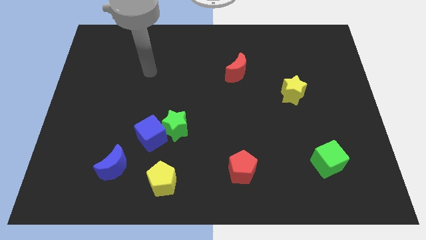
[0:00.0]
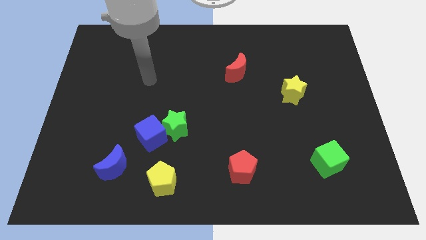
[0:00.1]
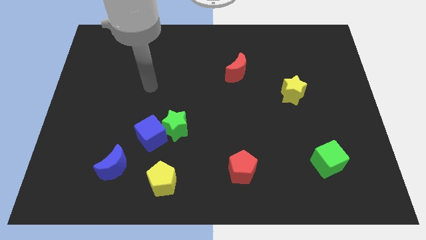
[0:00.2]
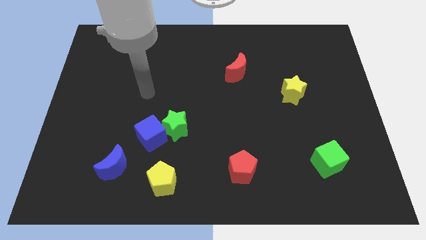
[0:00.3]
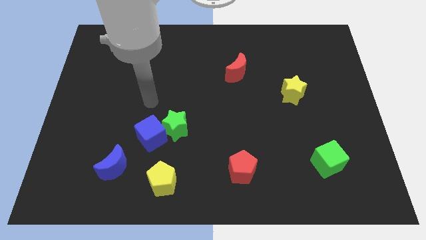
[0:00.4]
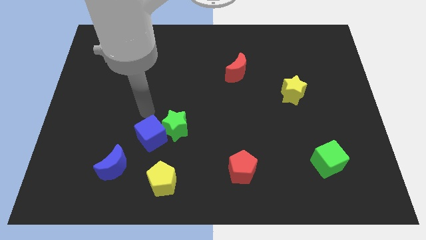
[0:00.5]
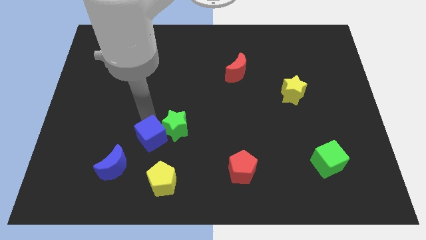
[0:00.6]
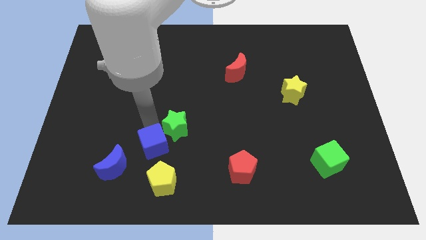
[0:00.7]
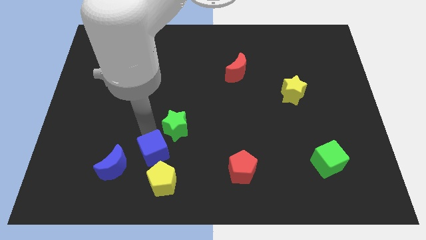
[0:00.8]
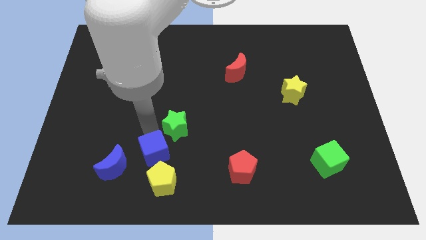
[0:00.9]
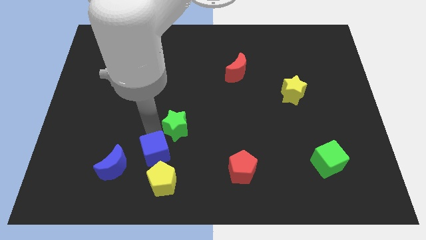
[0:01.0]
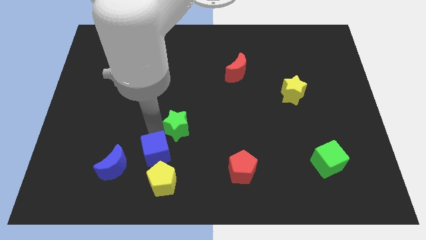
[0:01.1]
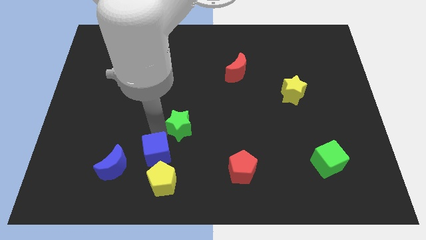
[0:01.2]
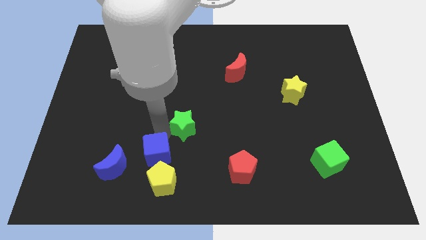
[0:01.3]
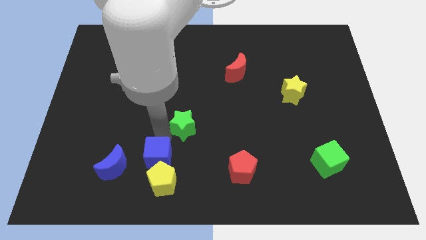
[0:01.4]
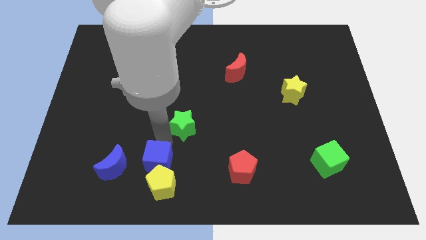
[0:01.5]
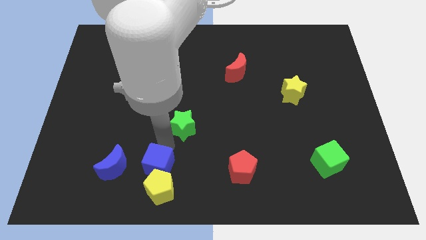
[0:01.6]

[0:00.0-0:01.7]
separate the green star from the blue cube

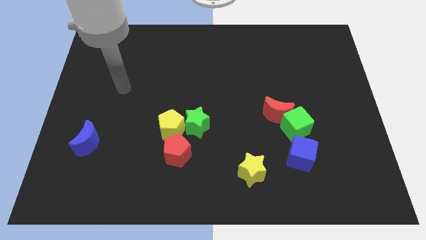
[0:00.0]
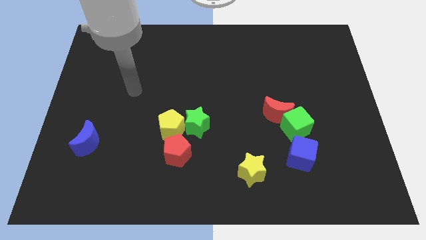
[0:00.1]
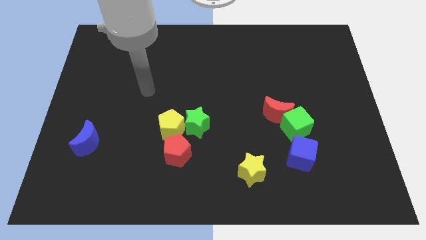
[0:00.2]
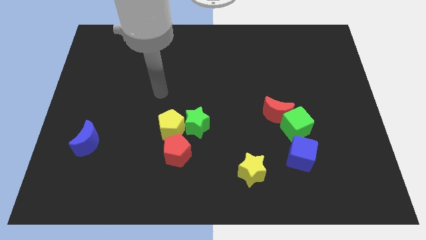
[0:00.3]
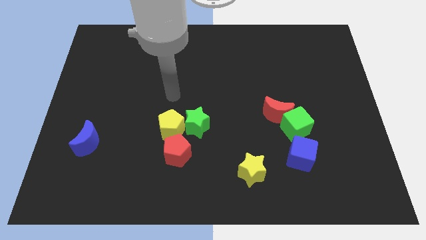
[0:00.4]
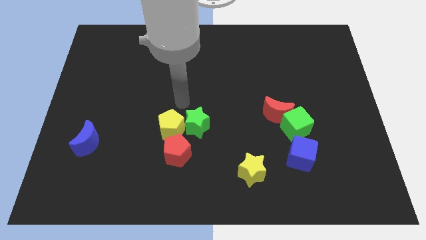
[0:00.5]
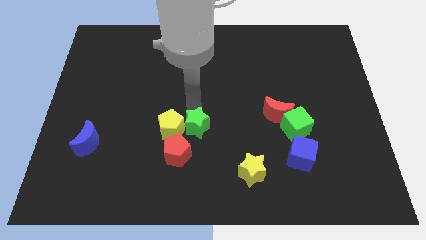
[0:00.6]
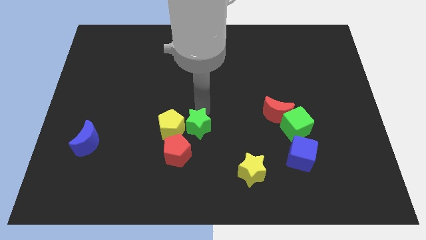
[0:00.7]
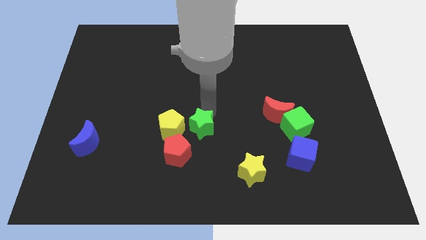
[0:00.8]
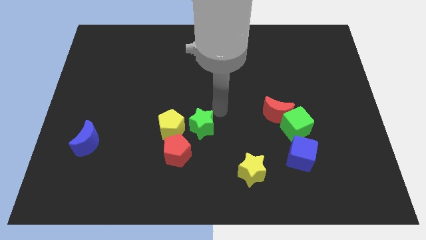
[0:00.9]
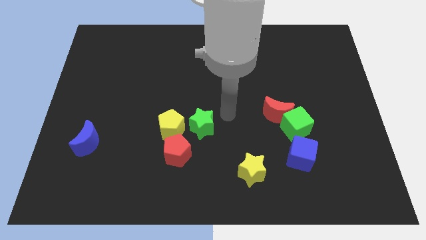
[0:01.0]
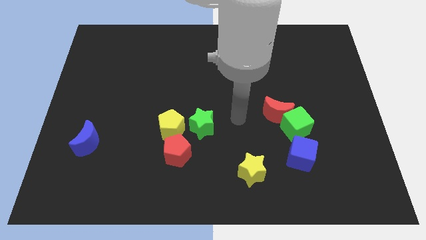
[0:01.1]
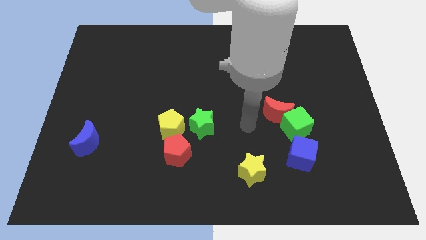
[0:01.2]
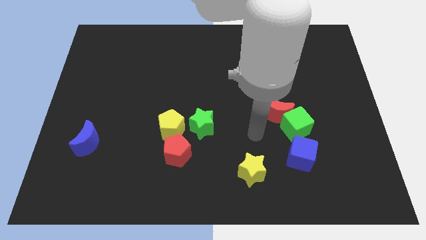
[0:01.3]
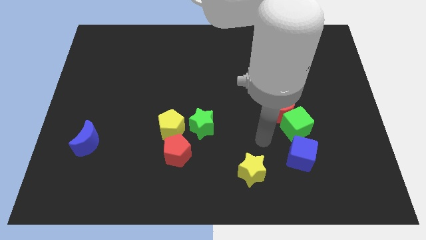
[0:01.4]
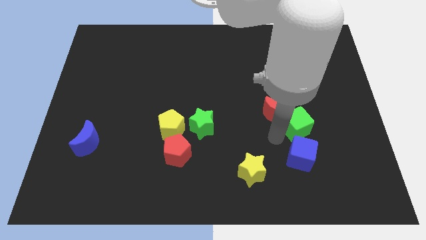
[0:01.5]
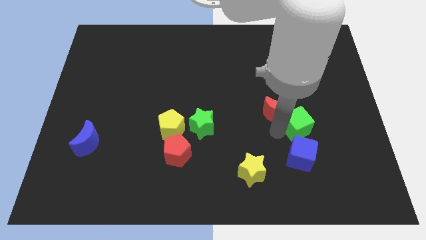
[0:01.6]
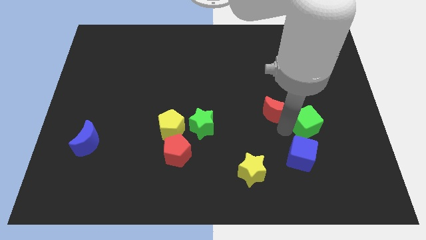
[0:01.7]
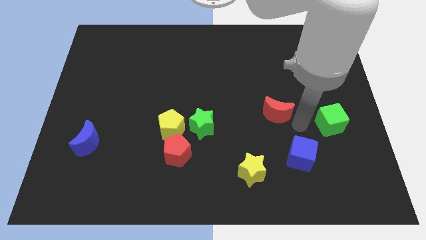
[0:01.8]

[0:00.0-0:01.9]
move the red moon away from the green cube

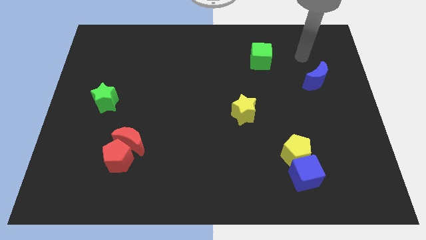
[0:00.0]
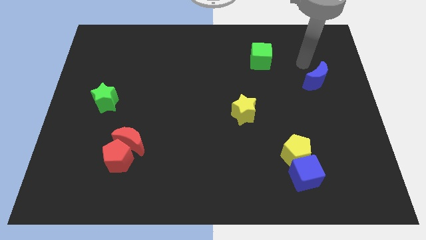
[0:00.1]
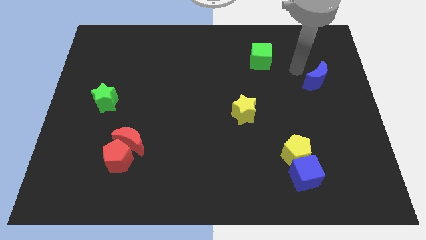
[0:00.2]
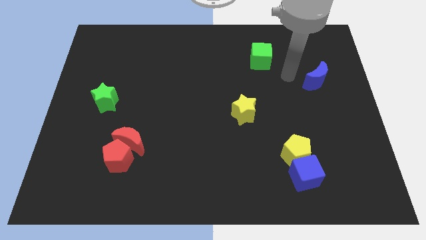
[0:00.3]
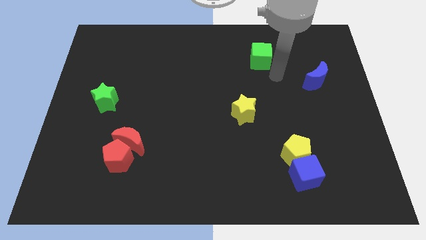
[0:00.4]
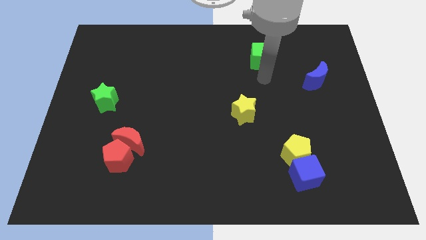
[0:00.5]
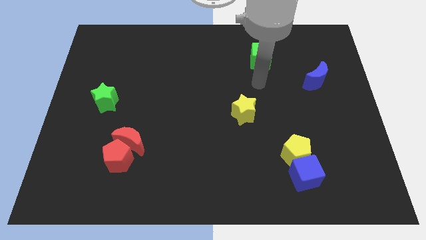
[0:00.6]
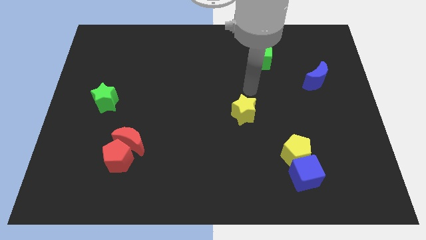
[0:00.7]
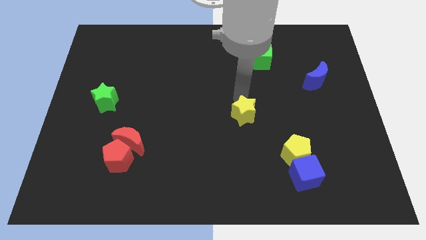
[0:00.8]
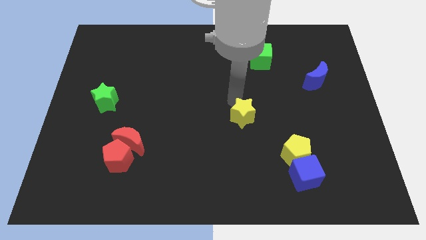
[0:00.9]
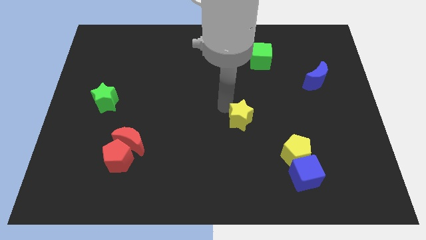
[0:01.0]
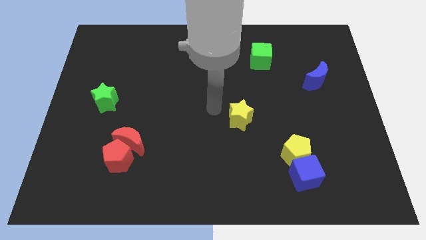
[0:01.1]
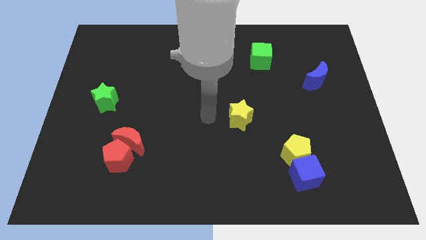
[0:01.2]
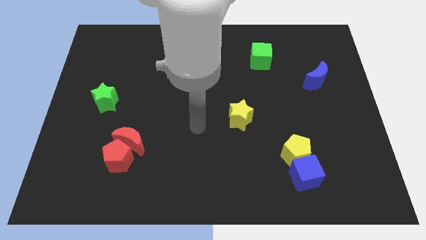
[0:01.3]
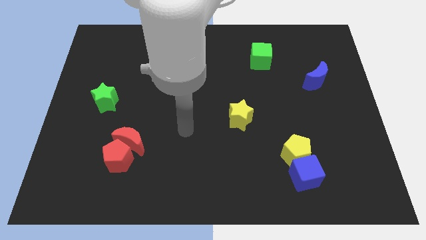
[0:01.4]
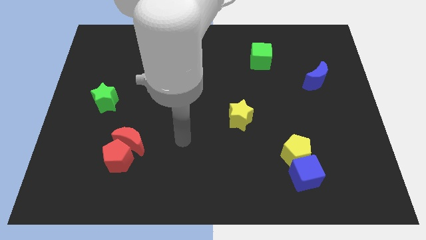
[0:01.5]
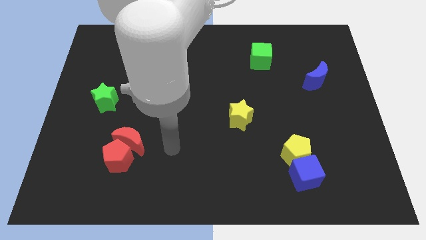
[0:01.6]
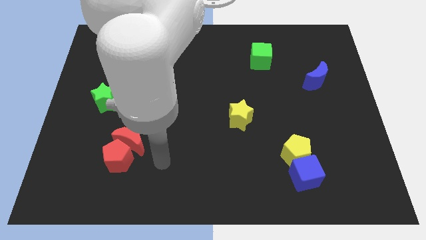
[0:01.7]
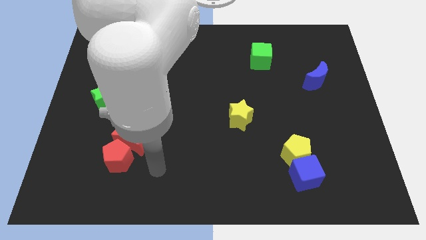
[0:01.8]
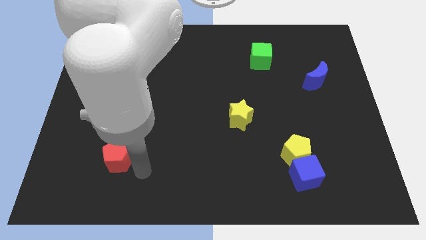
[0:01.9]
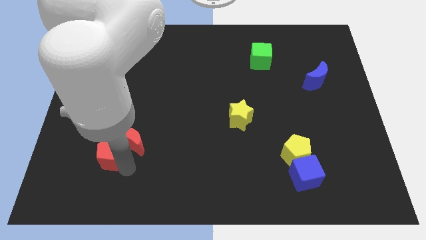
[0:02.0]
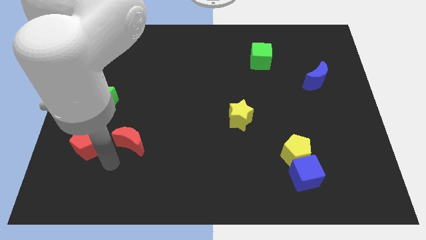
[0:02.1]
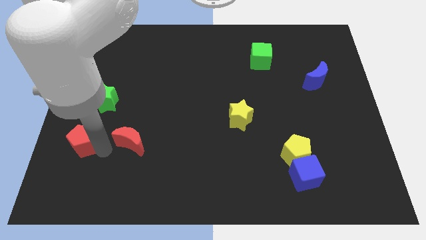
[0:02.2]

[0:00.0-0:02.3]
separate the red moon from the red pentagon

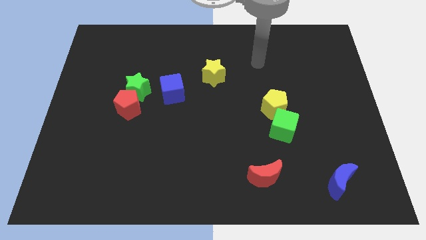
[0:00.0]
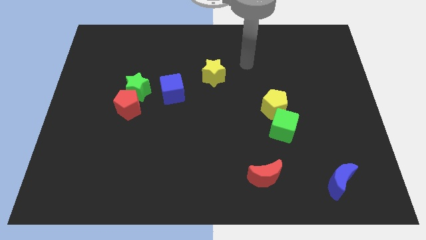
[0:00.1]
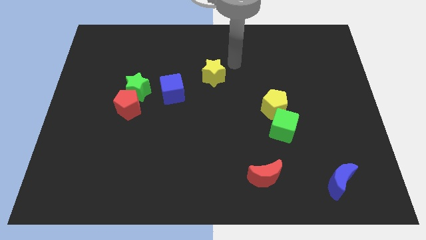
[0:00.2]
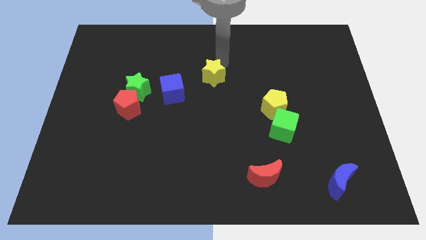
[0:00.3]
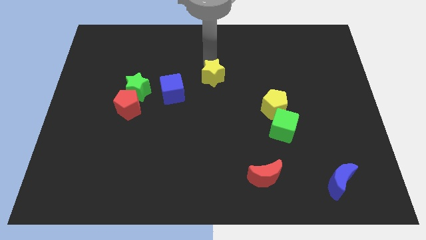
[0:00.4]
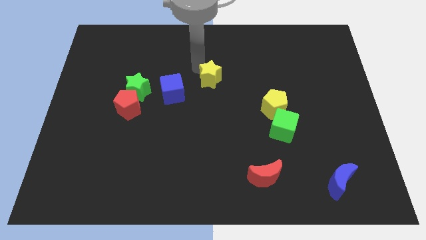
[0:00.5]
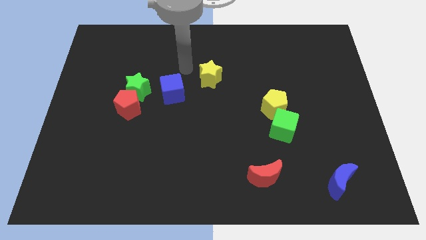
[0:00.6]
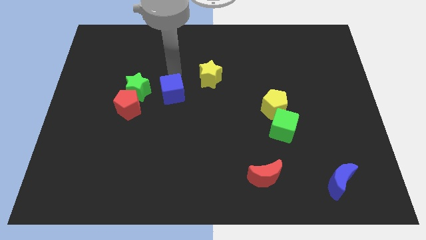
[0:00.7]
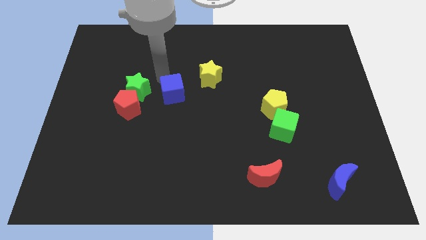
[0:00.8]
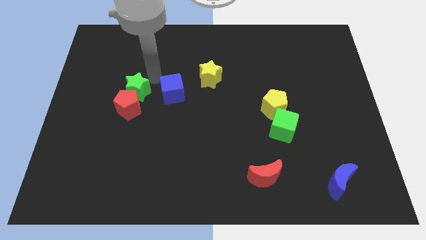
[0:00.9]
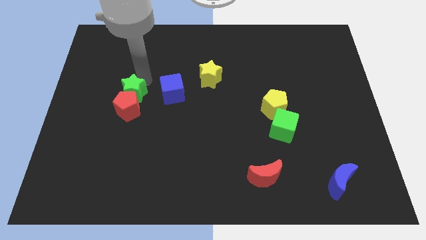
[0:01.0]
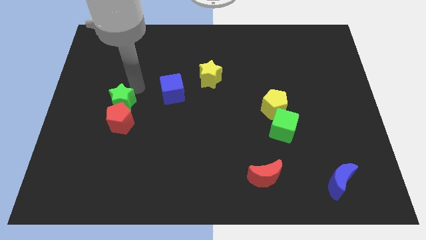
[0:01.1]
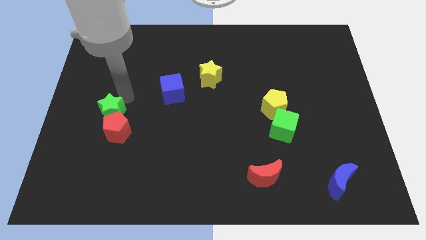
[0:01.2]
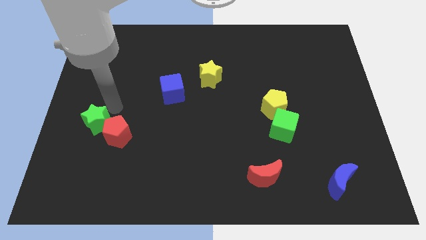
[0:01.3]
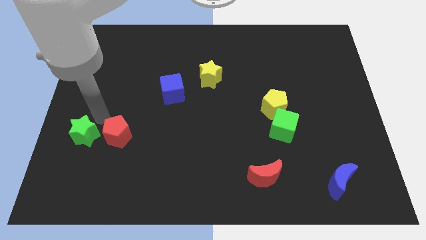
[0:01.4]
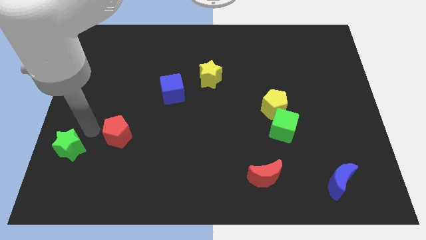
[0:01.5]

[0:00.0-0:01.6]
move the red pentagon away from the green star

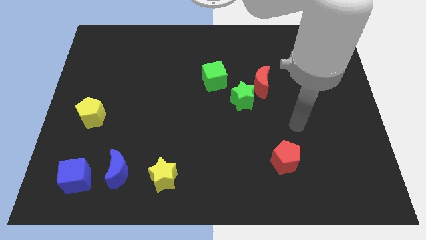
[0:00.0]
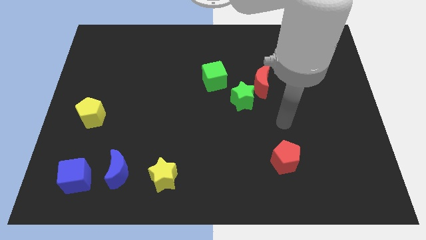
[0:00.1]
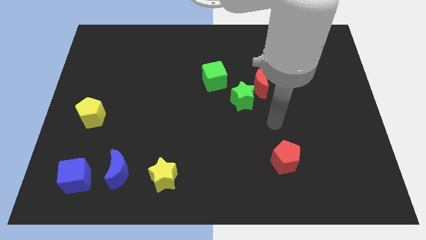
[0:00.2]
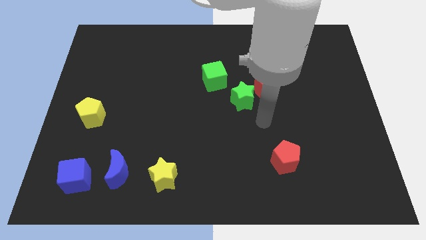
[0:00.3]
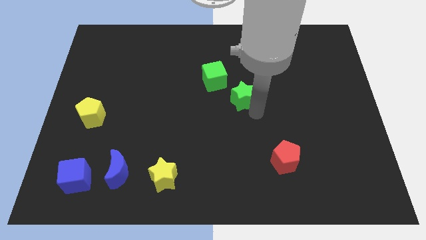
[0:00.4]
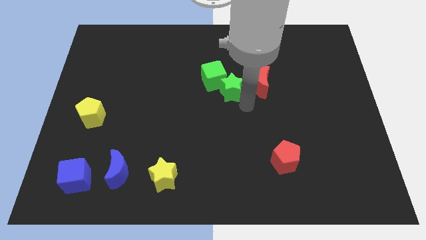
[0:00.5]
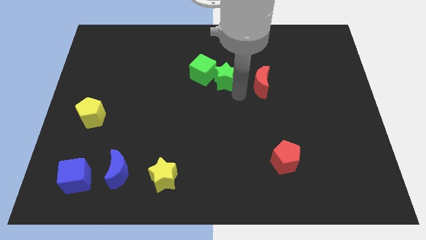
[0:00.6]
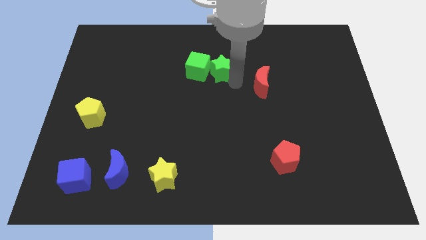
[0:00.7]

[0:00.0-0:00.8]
separate the red moon from the green star

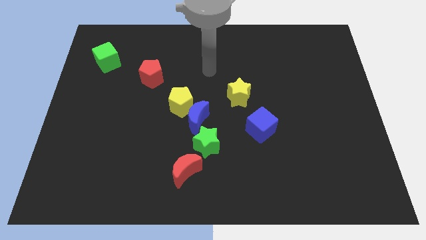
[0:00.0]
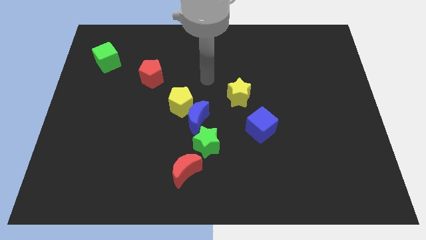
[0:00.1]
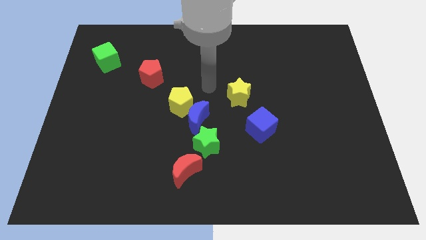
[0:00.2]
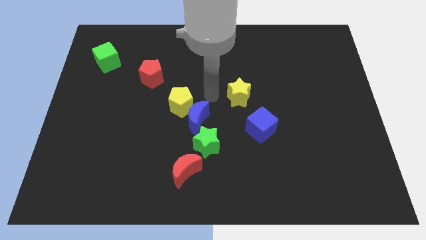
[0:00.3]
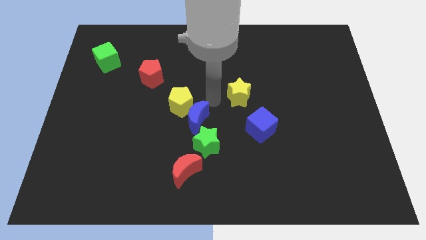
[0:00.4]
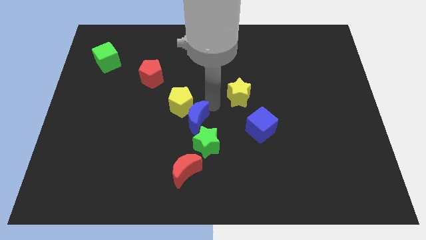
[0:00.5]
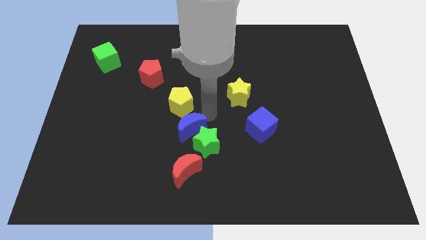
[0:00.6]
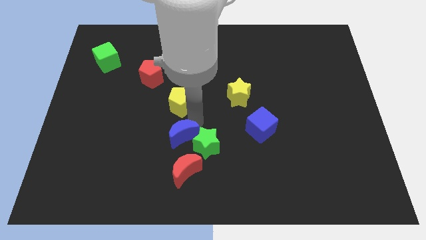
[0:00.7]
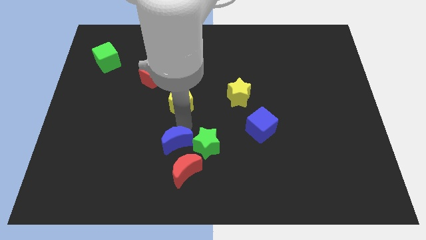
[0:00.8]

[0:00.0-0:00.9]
separate the yellow pentagon from the blue moon
